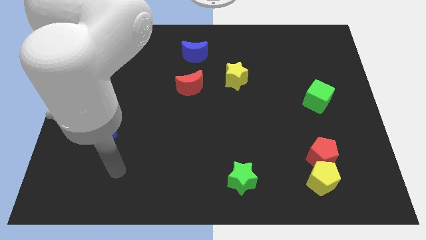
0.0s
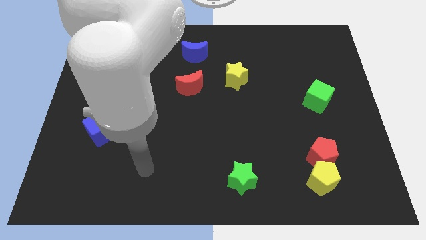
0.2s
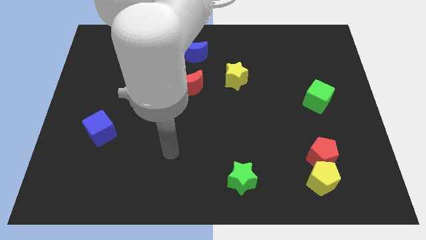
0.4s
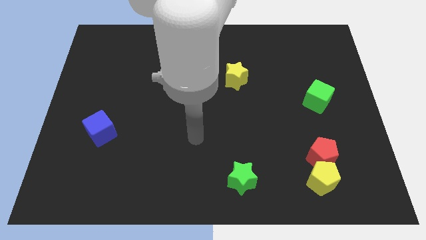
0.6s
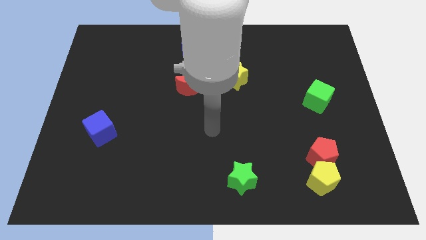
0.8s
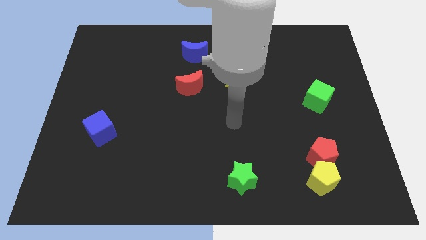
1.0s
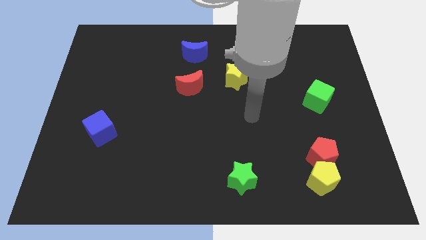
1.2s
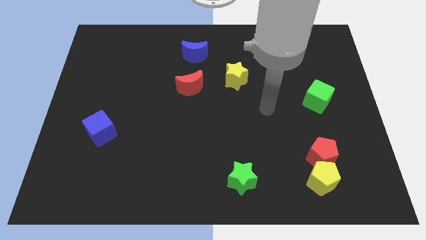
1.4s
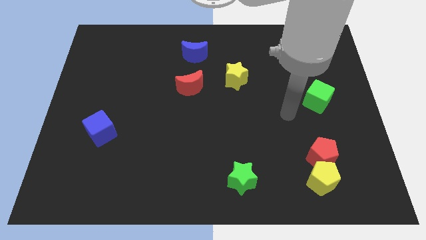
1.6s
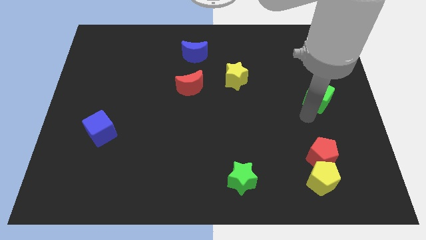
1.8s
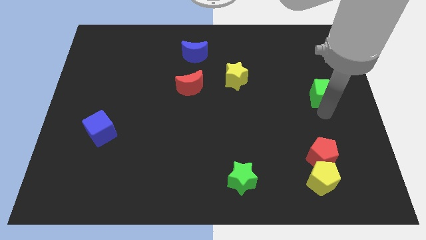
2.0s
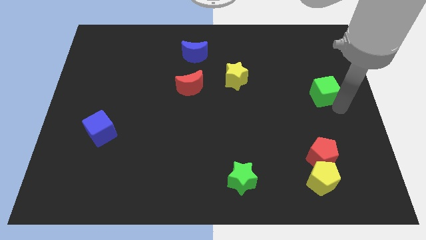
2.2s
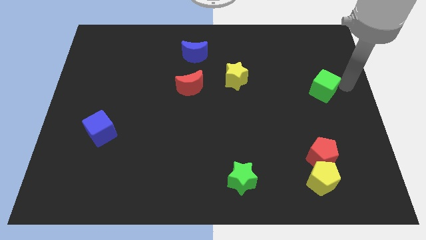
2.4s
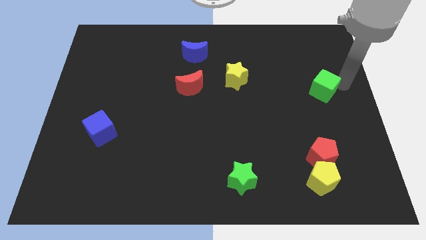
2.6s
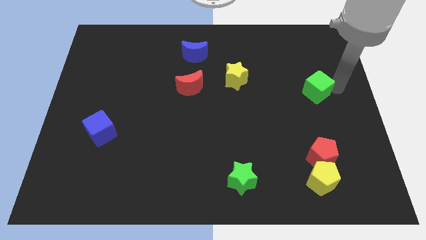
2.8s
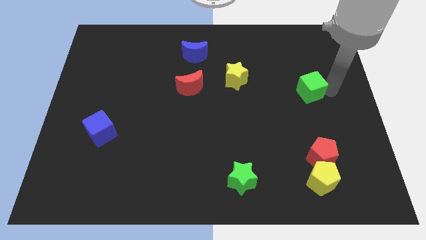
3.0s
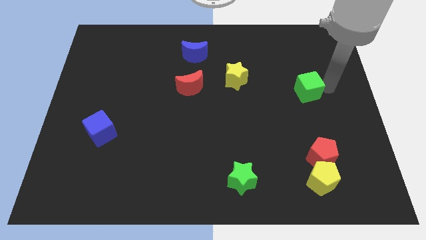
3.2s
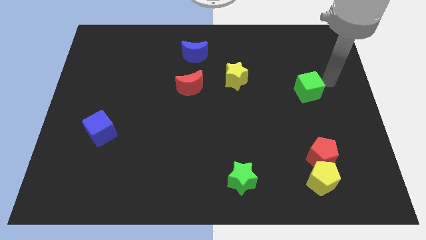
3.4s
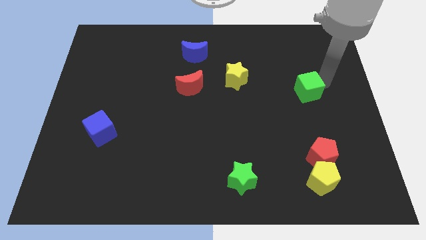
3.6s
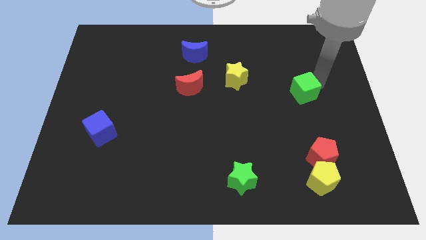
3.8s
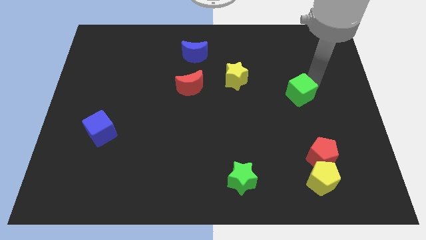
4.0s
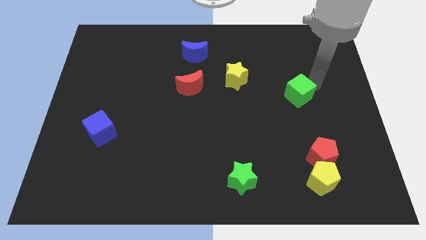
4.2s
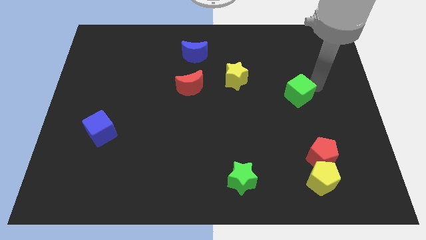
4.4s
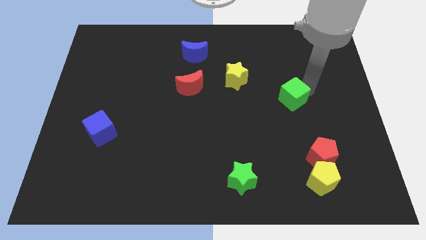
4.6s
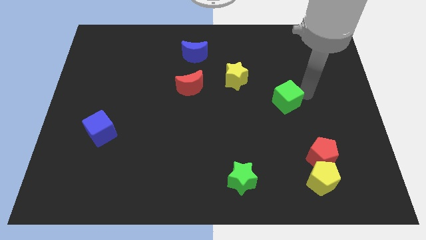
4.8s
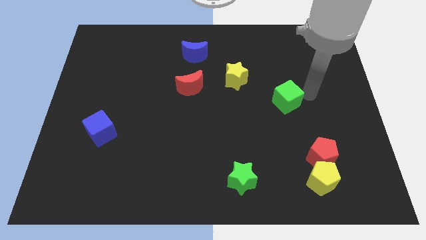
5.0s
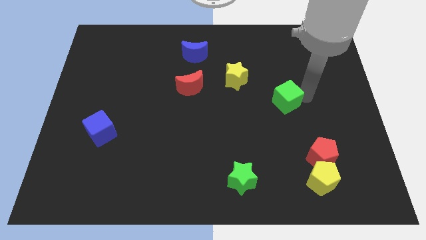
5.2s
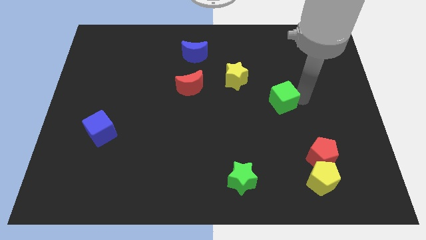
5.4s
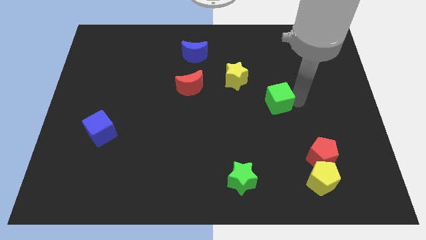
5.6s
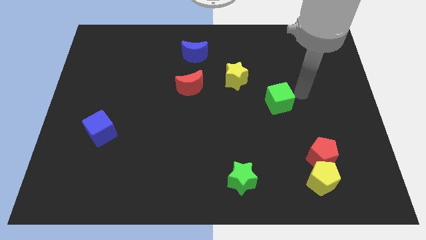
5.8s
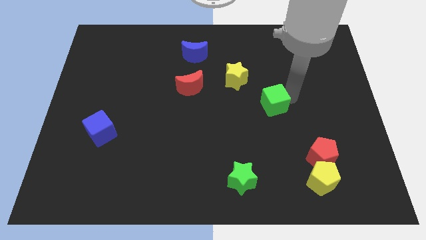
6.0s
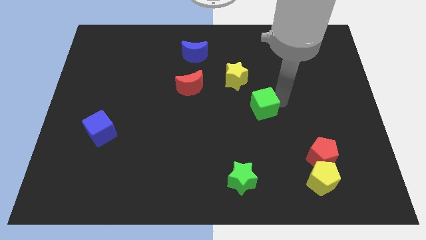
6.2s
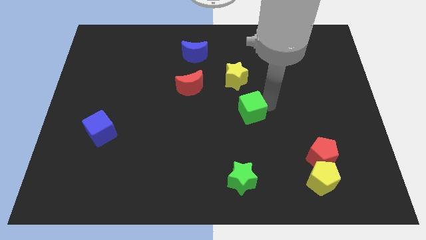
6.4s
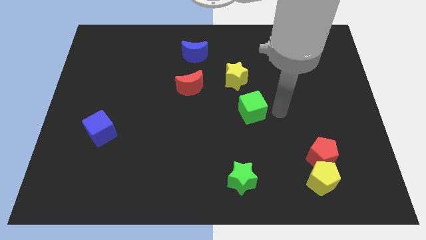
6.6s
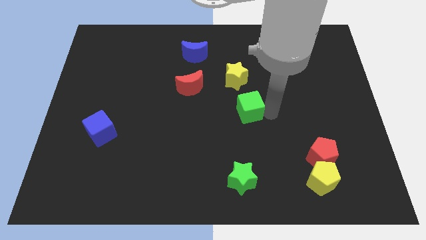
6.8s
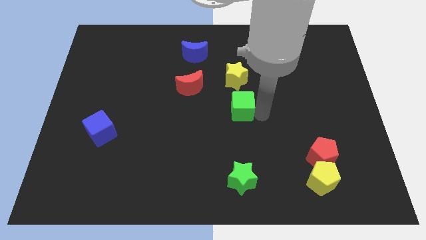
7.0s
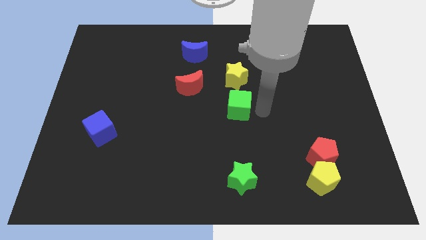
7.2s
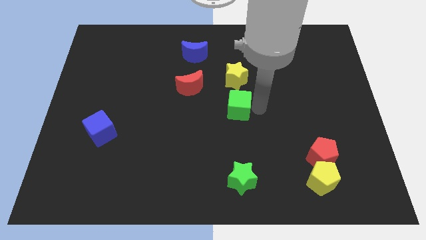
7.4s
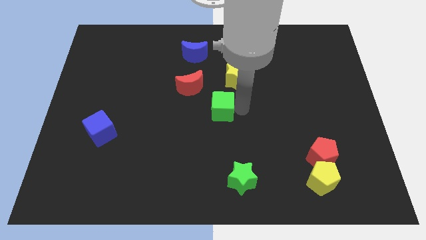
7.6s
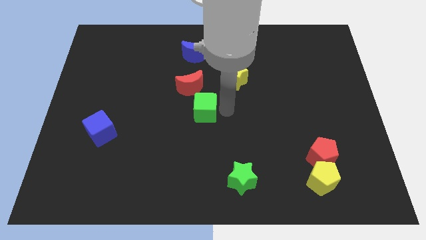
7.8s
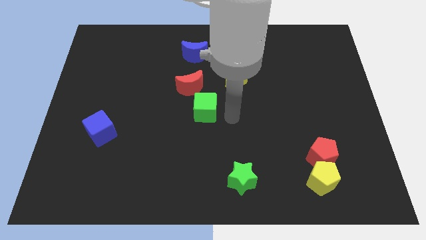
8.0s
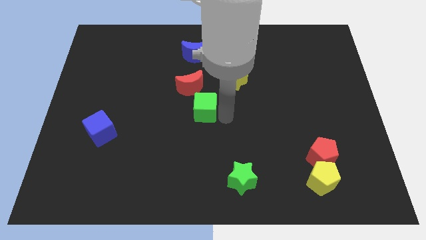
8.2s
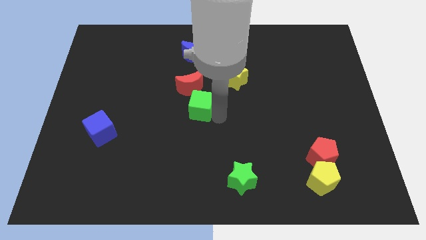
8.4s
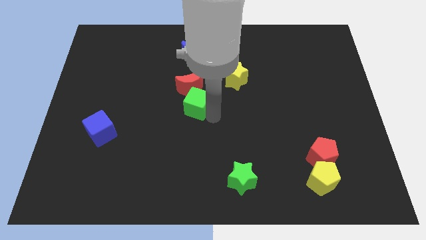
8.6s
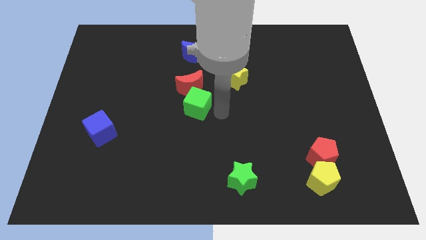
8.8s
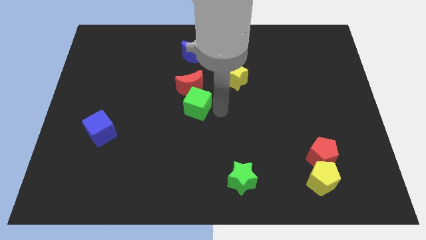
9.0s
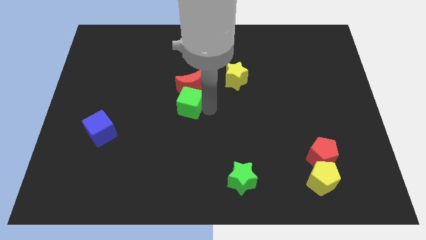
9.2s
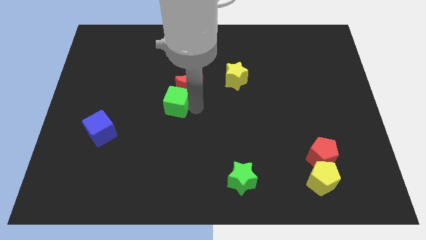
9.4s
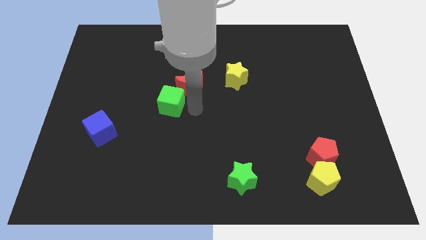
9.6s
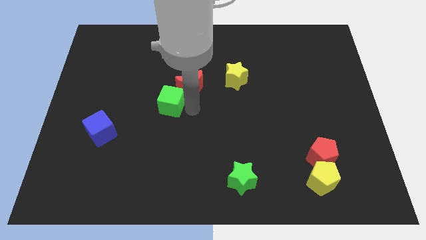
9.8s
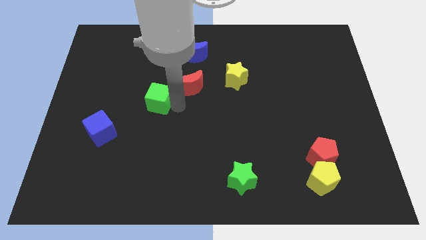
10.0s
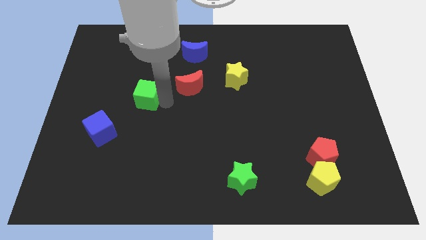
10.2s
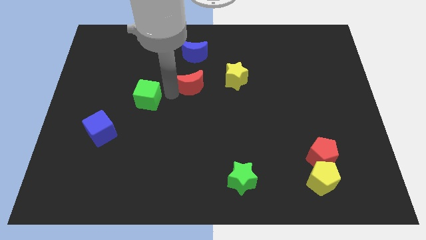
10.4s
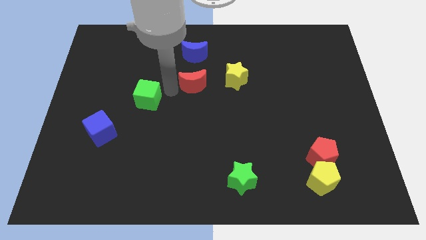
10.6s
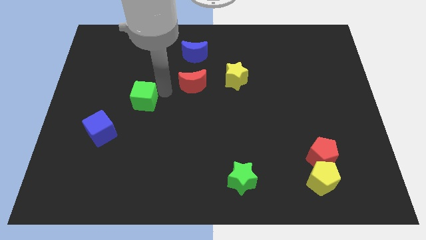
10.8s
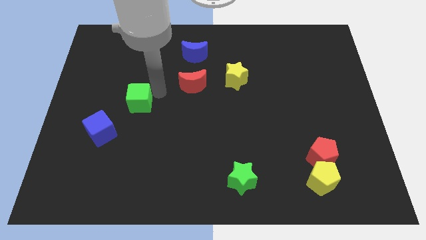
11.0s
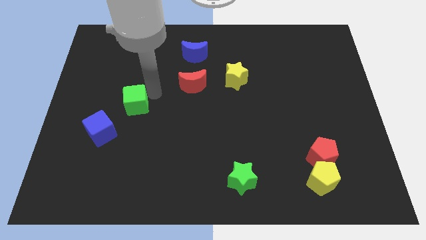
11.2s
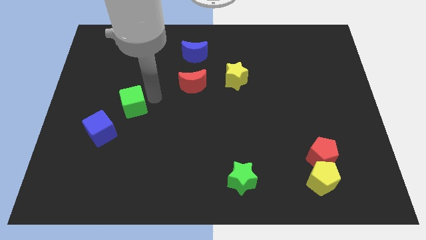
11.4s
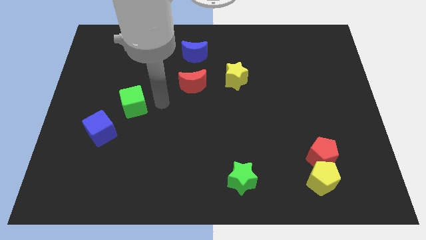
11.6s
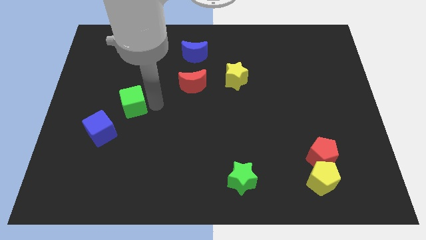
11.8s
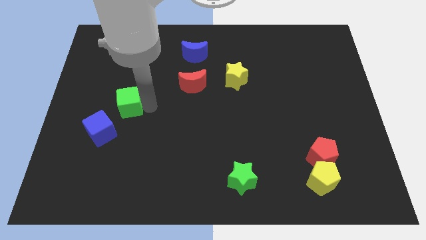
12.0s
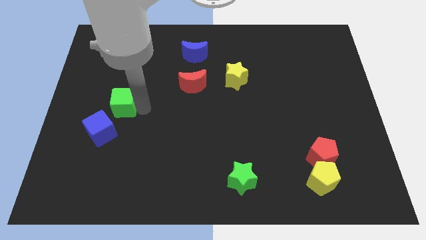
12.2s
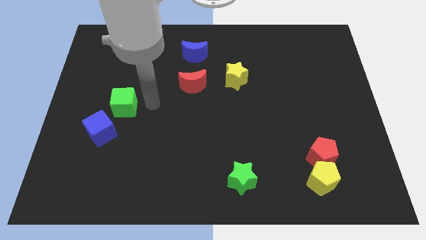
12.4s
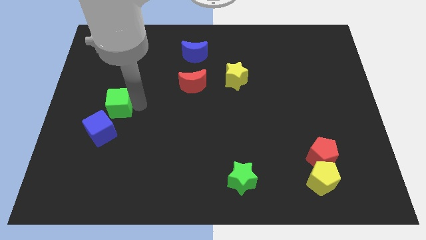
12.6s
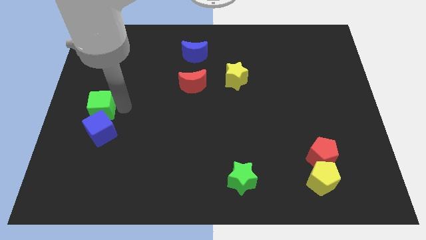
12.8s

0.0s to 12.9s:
slide the green cube to the center left

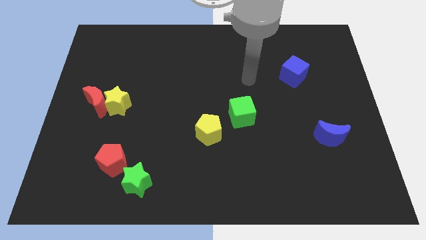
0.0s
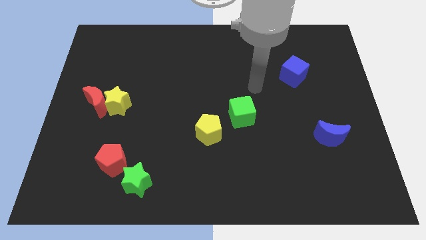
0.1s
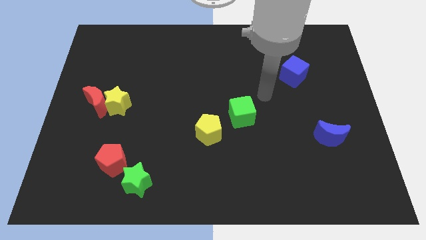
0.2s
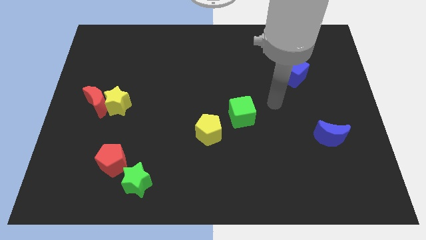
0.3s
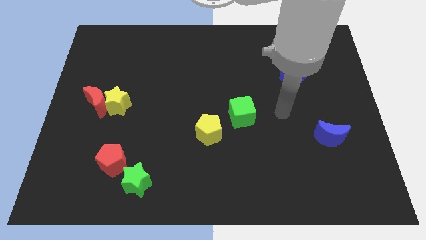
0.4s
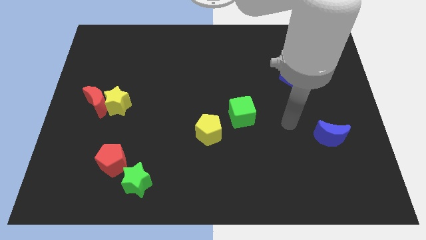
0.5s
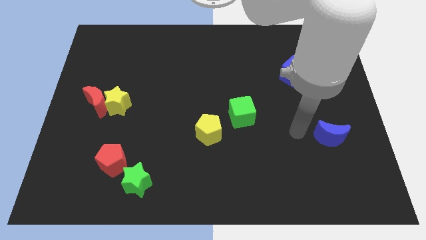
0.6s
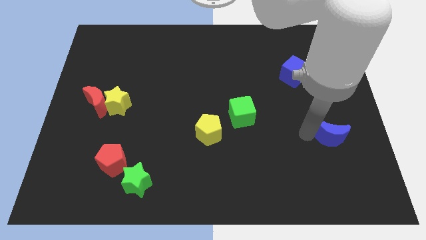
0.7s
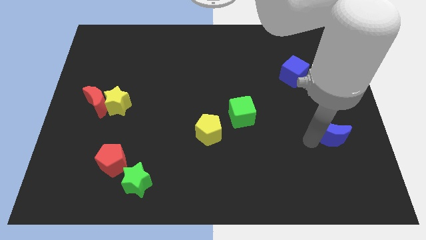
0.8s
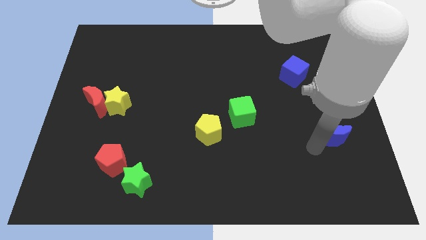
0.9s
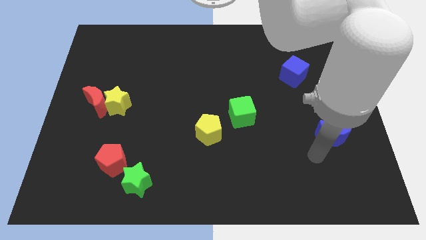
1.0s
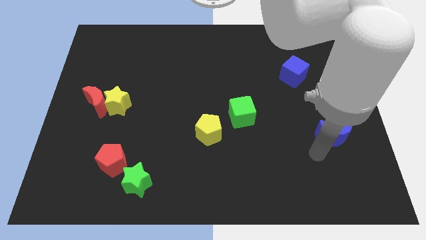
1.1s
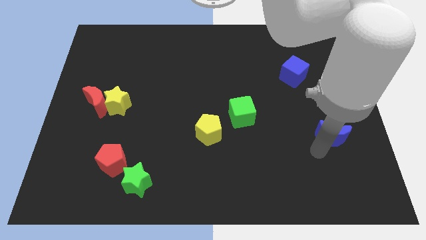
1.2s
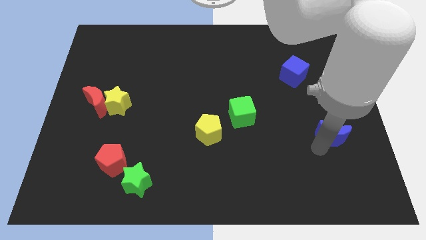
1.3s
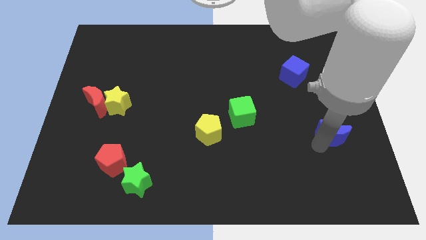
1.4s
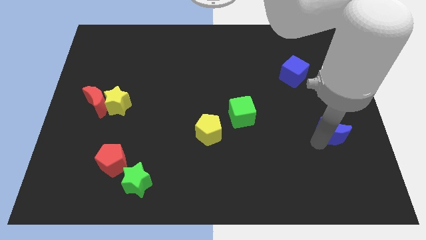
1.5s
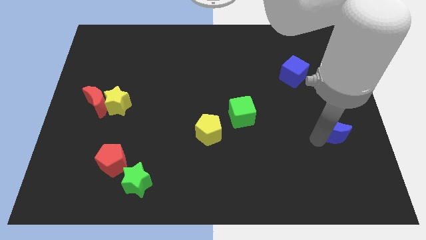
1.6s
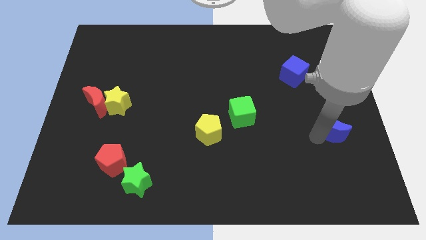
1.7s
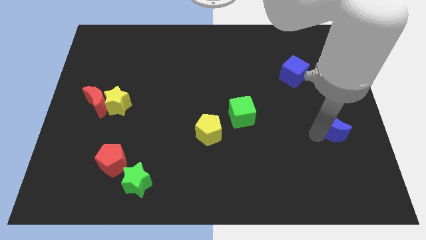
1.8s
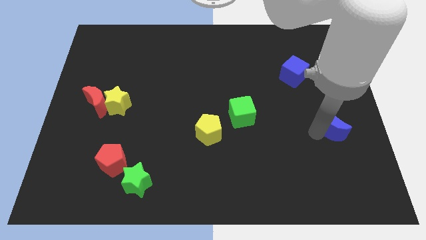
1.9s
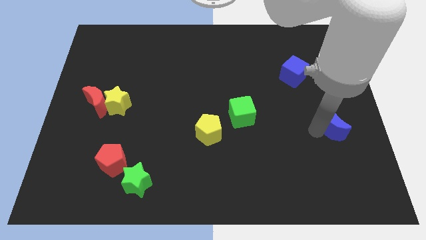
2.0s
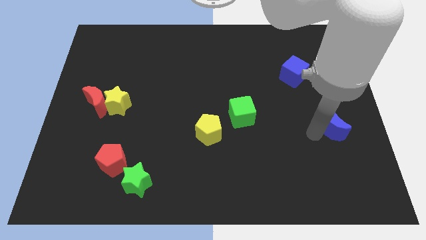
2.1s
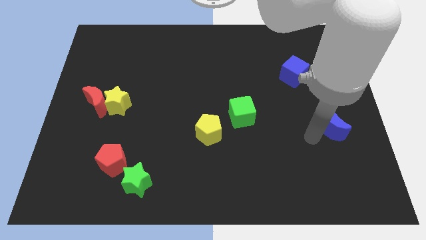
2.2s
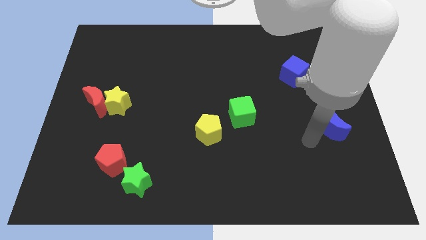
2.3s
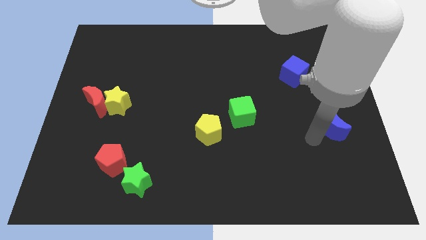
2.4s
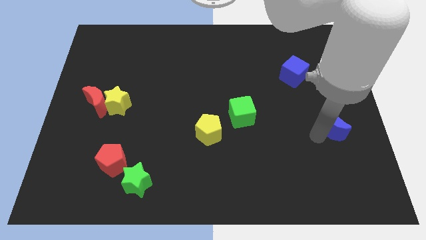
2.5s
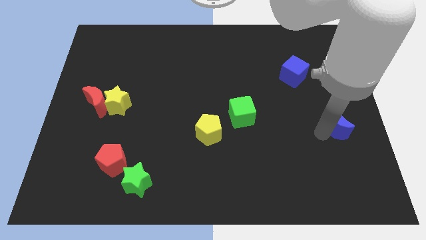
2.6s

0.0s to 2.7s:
move the blue moon to the right side
